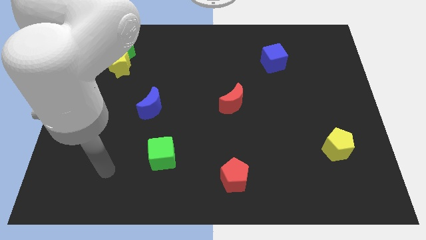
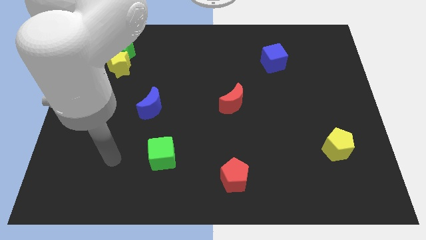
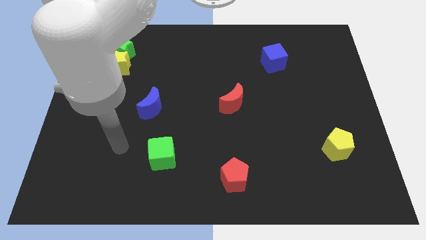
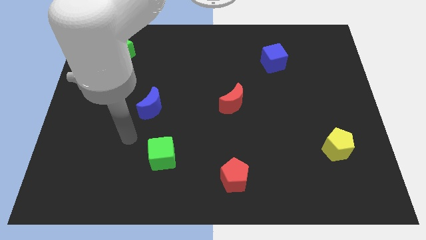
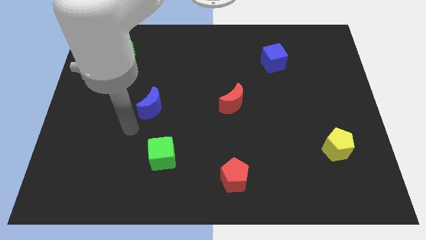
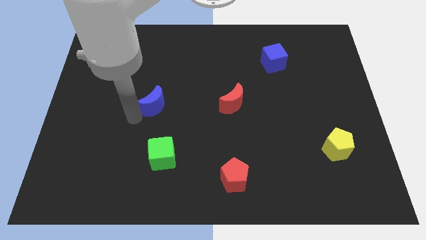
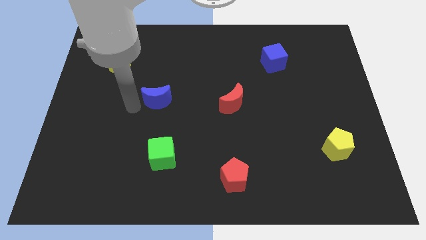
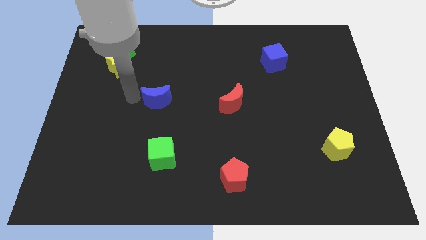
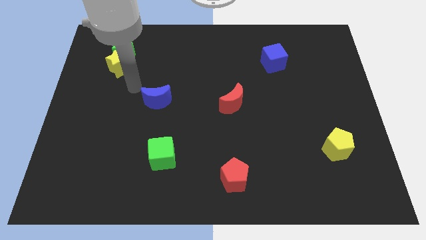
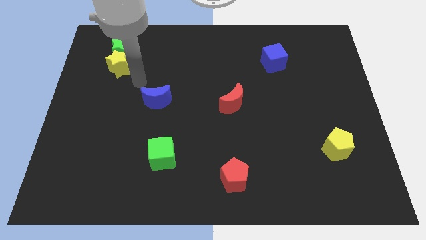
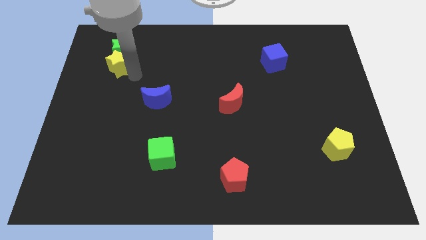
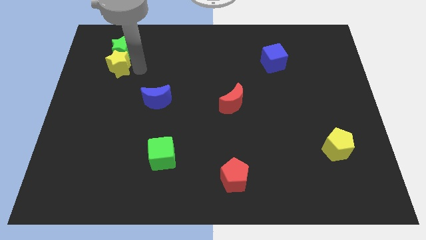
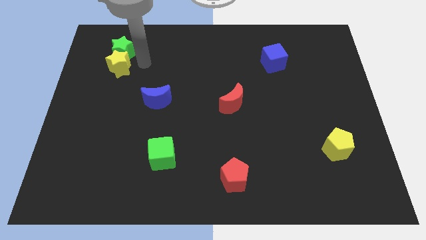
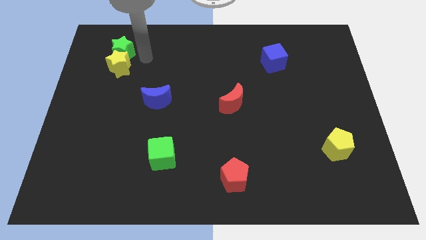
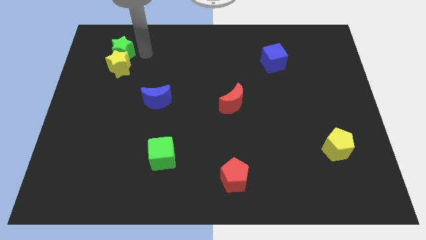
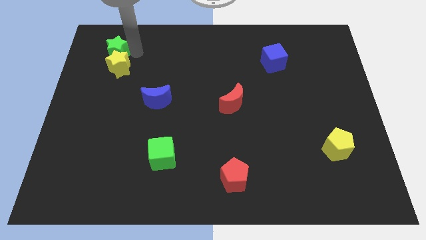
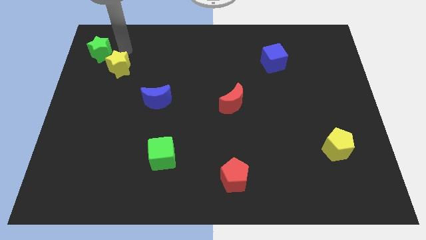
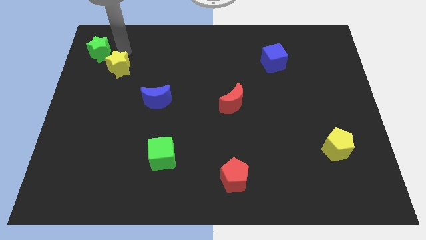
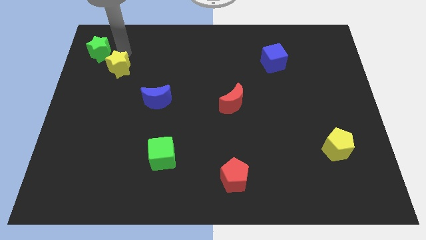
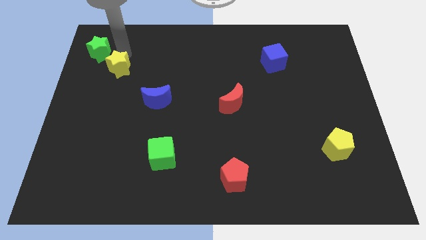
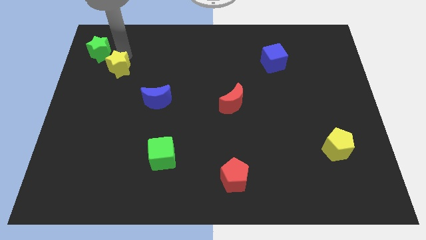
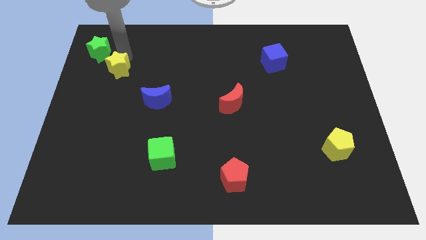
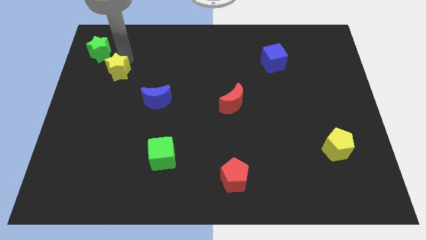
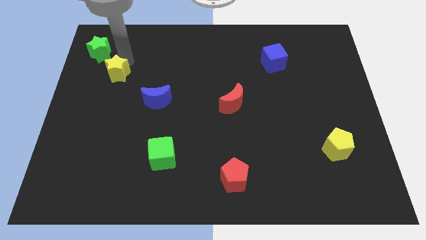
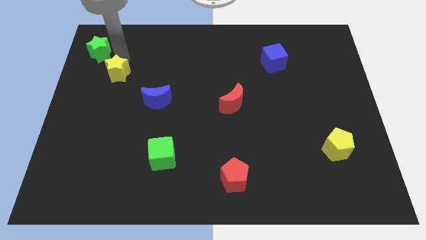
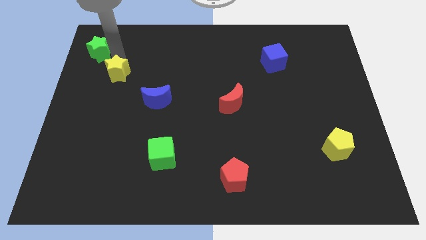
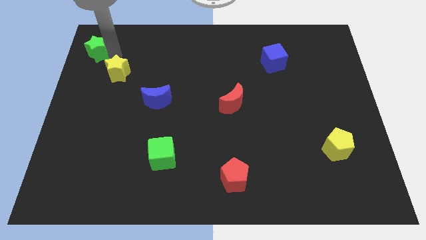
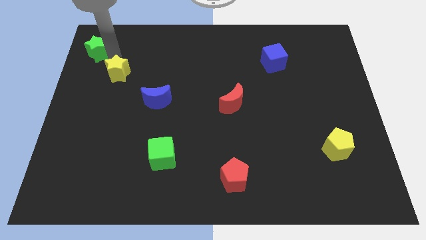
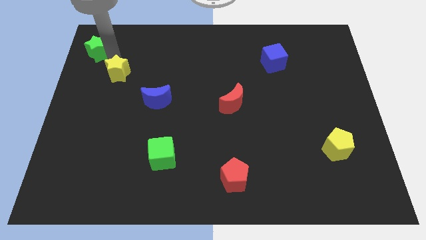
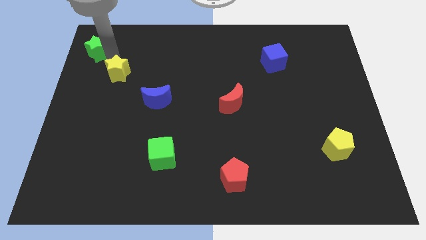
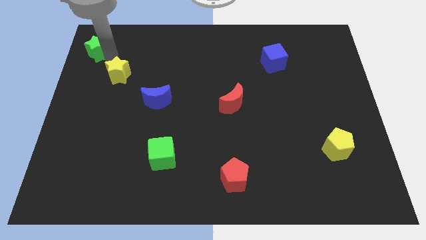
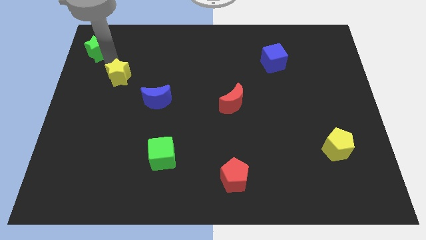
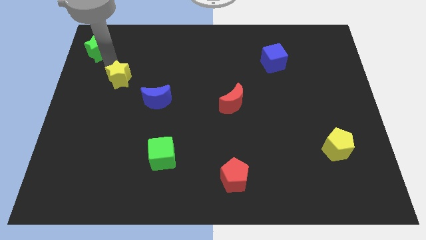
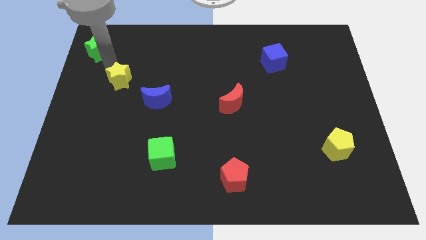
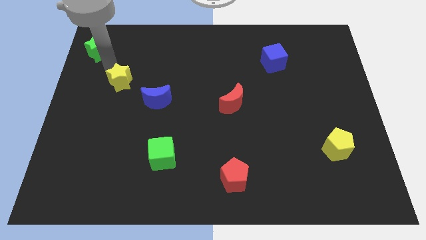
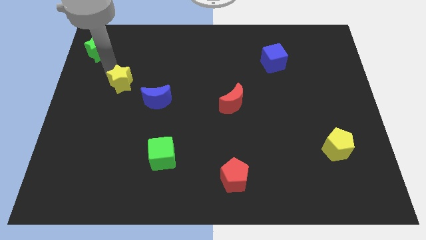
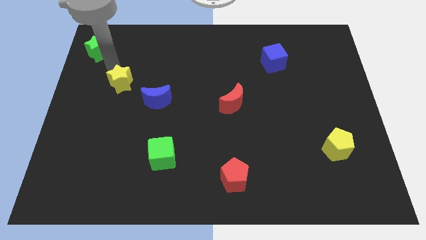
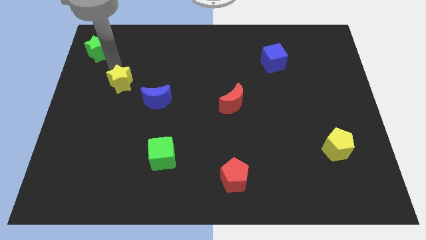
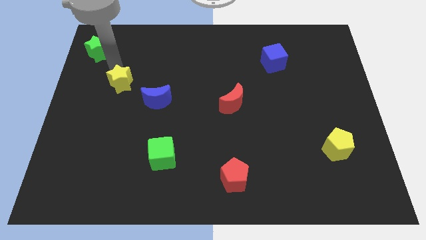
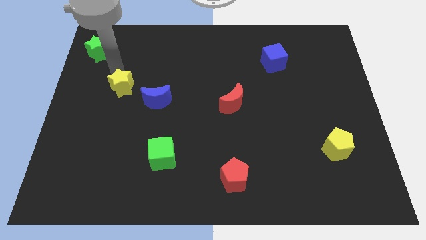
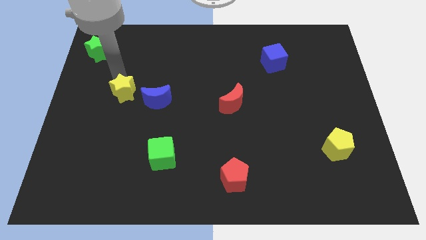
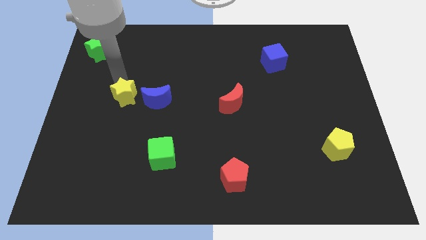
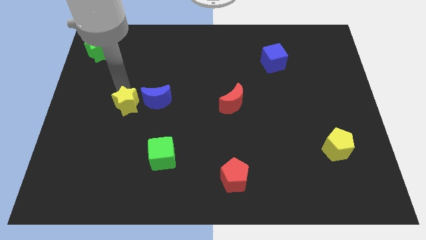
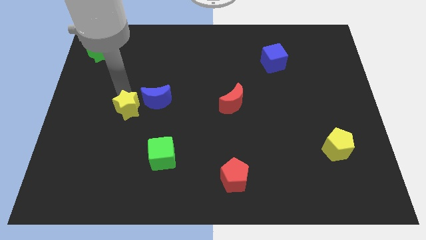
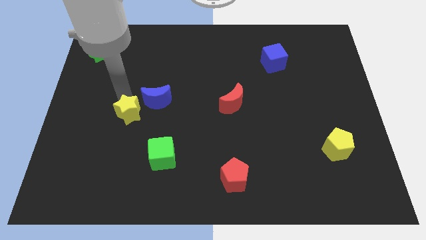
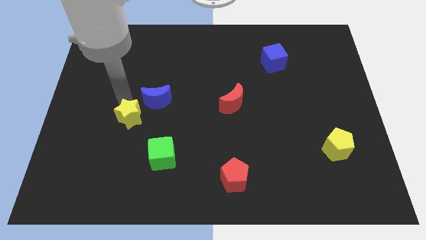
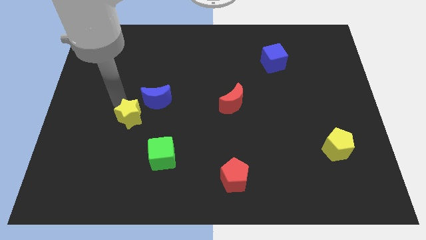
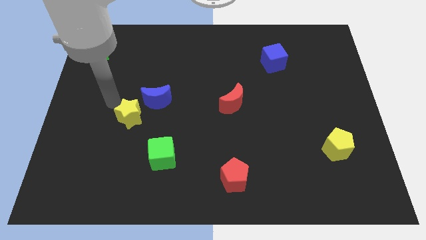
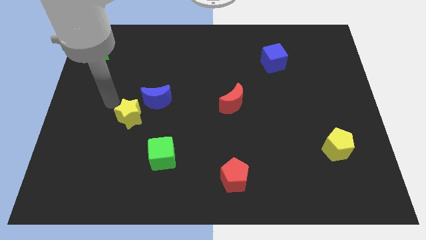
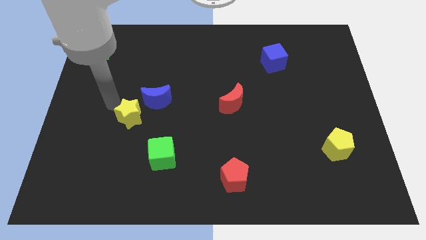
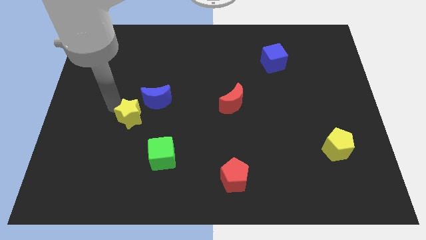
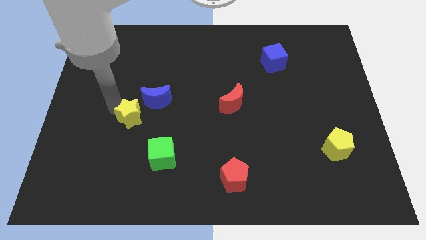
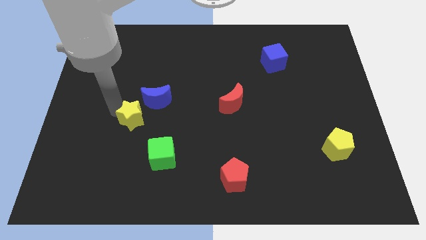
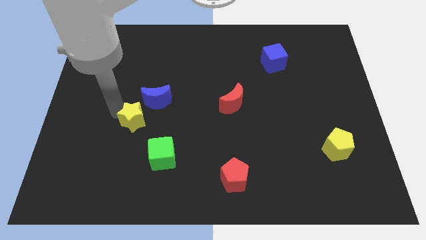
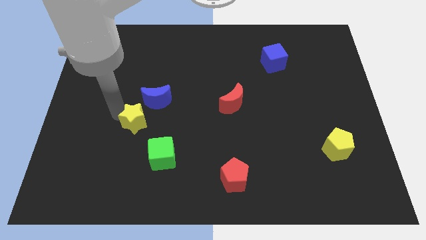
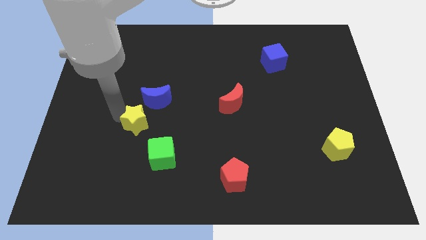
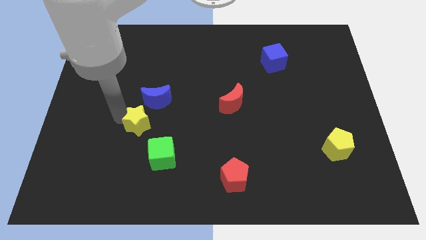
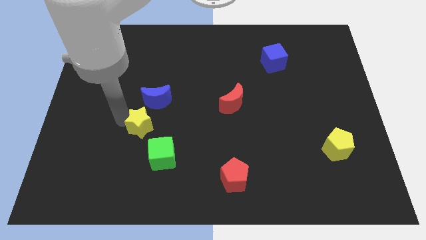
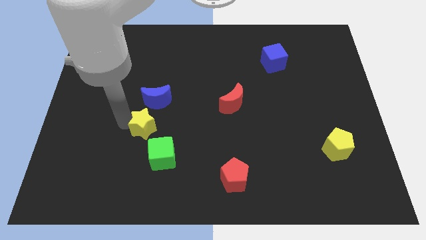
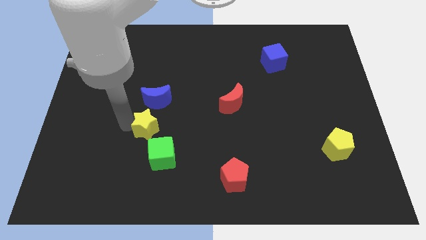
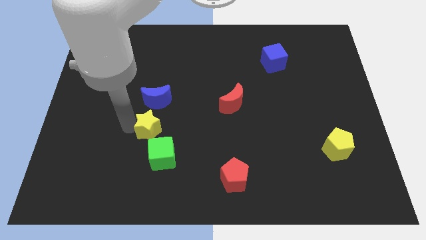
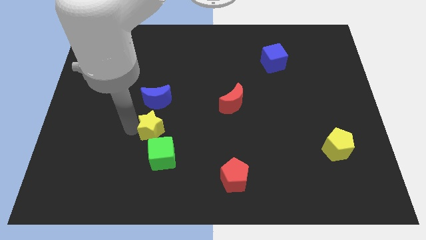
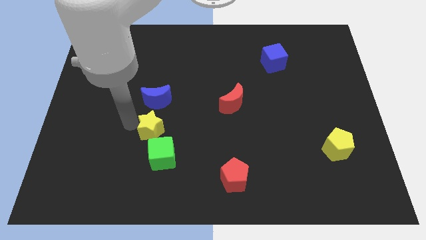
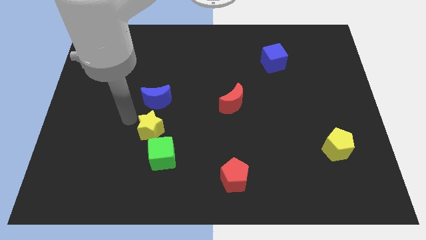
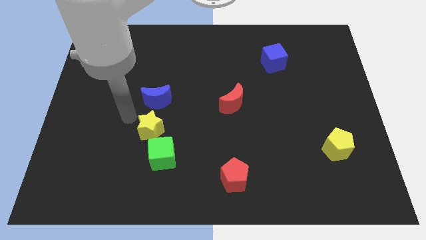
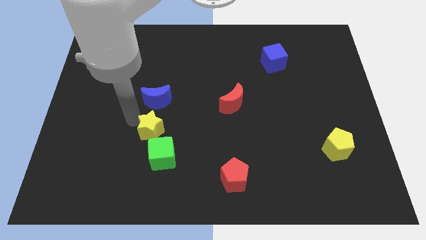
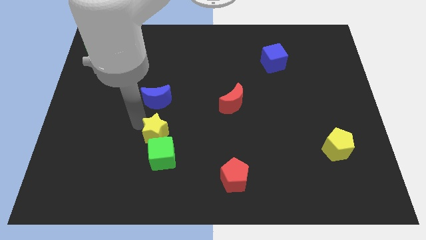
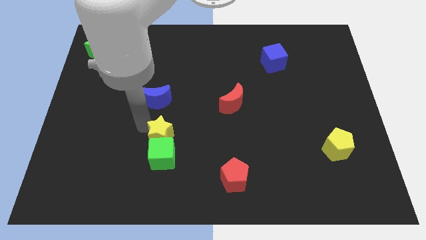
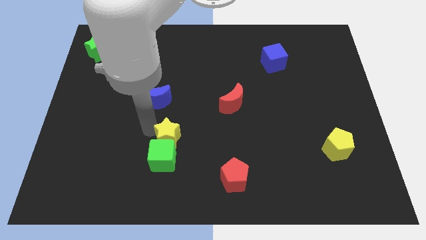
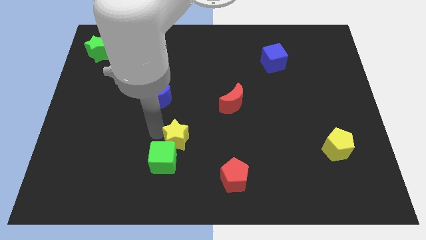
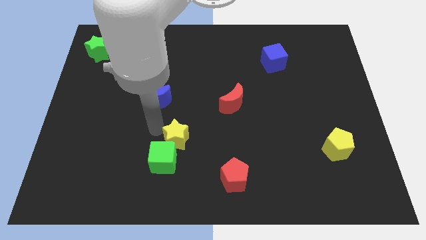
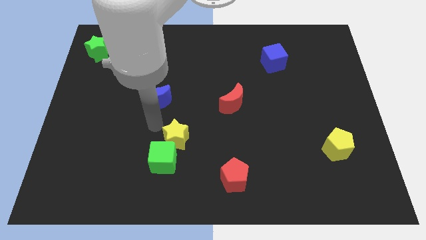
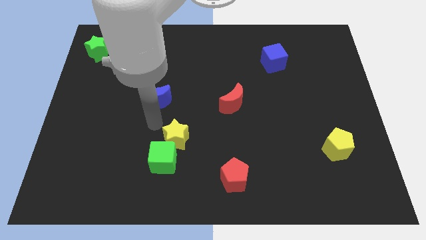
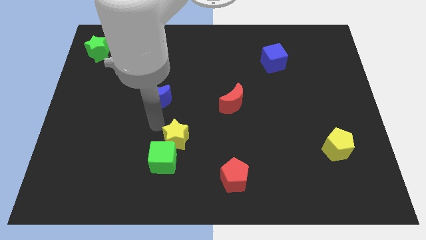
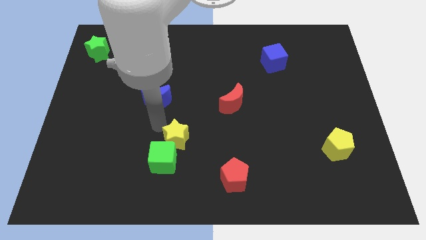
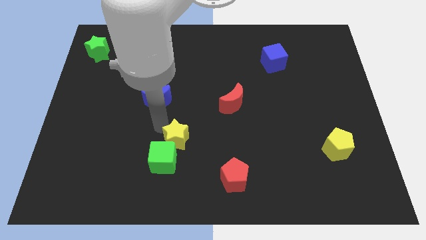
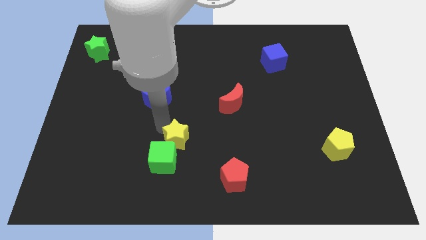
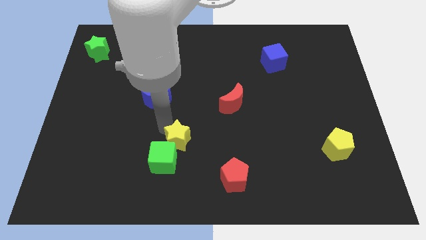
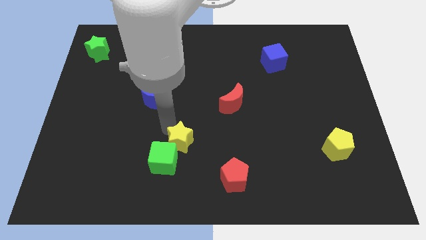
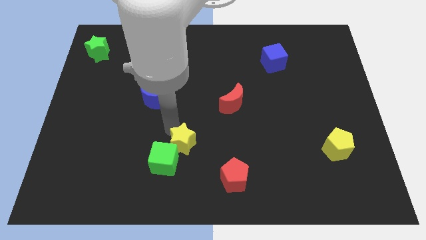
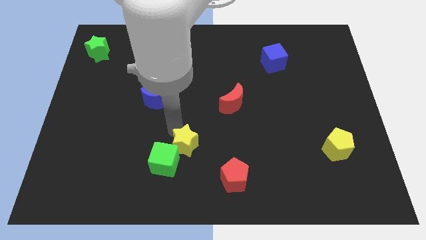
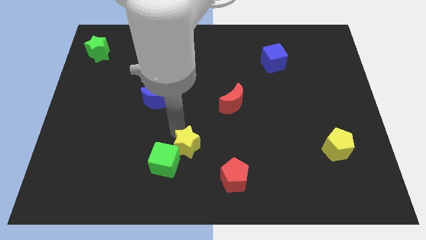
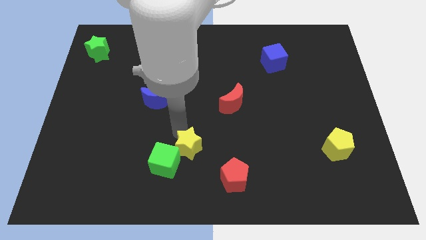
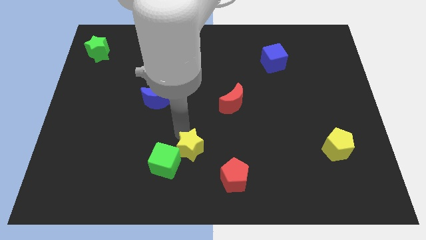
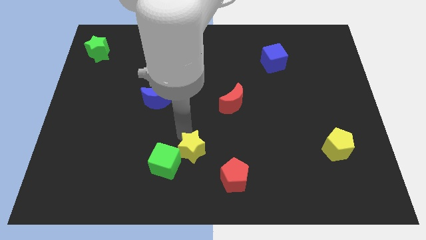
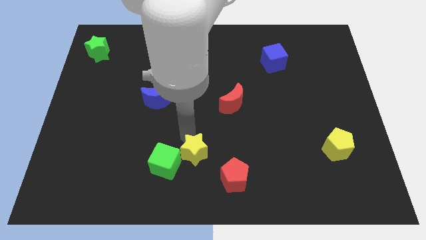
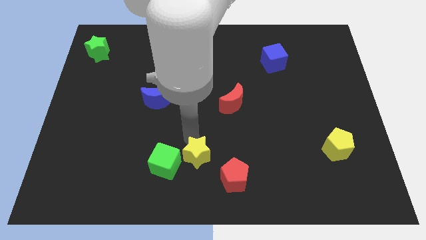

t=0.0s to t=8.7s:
slide the yellow star to the bottom side
